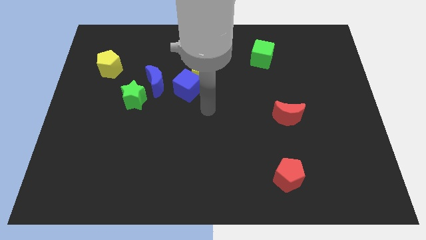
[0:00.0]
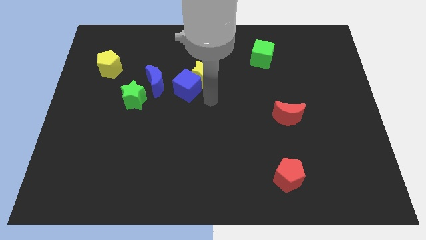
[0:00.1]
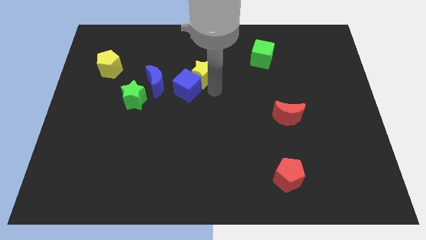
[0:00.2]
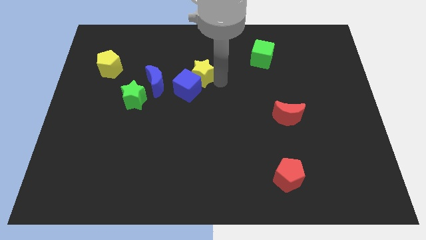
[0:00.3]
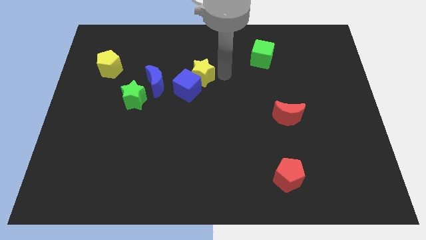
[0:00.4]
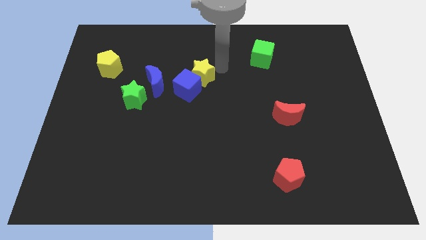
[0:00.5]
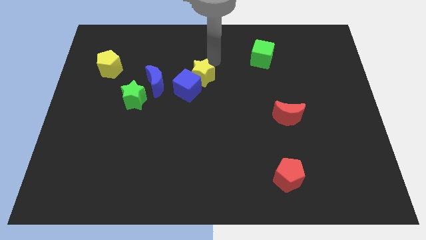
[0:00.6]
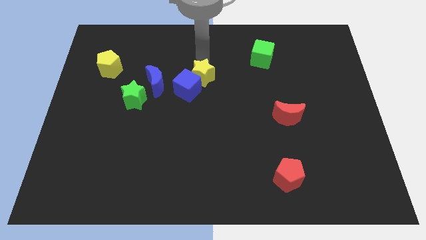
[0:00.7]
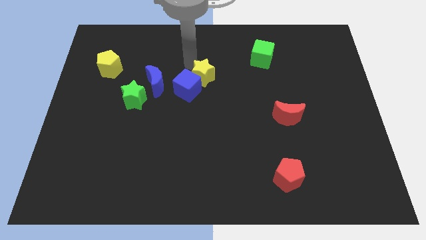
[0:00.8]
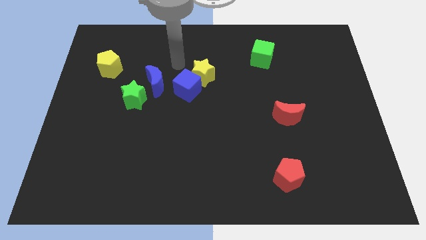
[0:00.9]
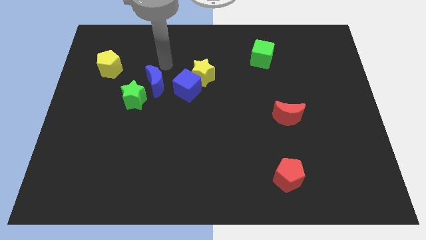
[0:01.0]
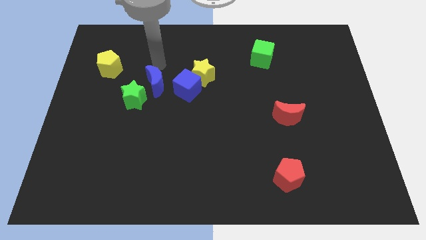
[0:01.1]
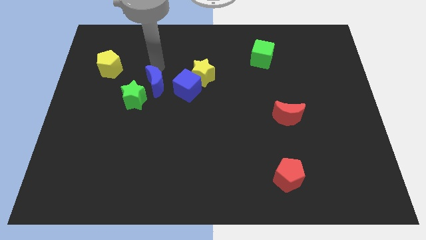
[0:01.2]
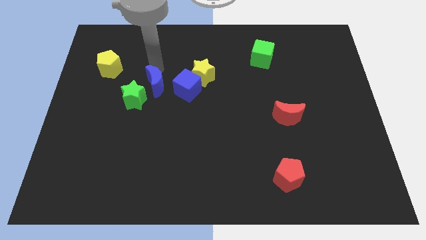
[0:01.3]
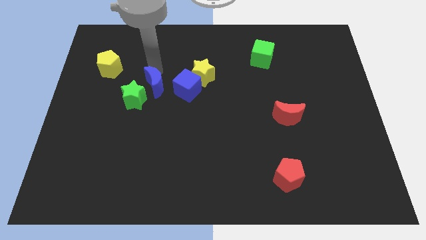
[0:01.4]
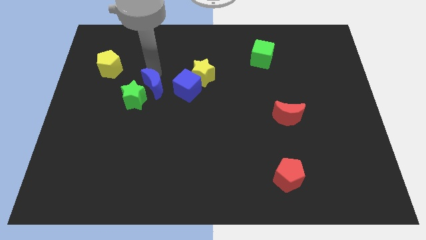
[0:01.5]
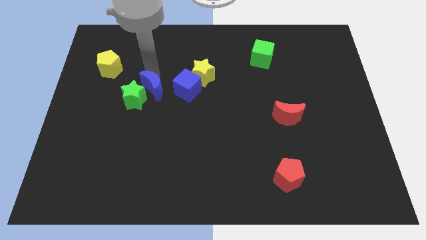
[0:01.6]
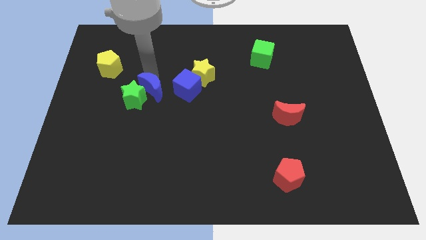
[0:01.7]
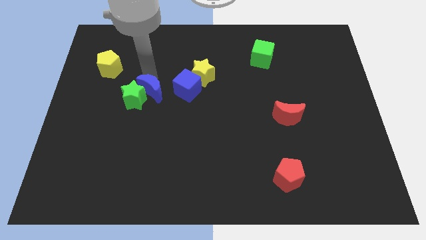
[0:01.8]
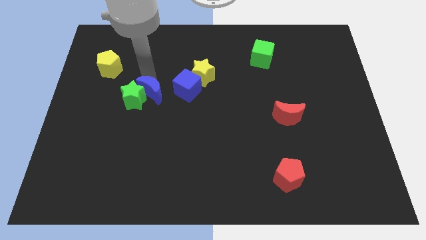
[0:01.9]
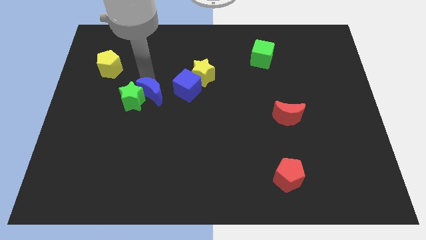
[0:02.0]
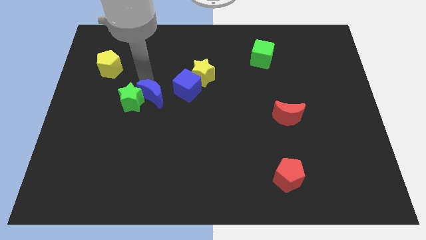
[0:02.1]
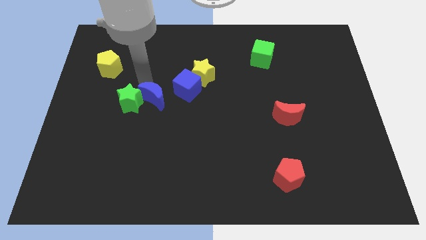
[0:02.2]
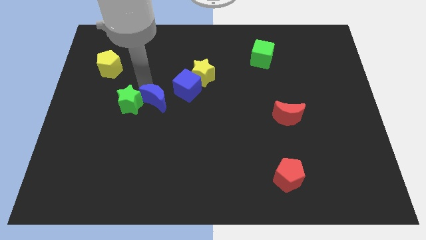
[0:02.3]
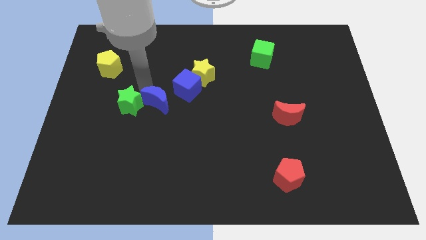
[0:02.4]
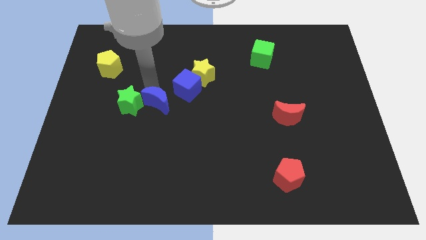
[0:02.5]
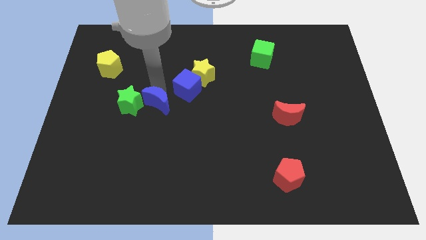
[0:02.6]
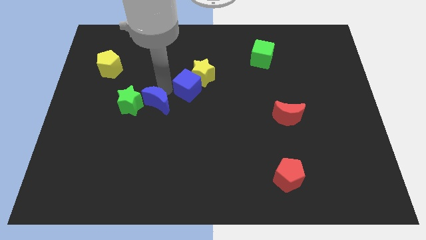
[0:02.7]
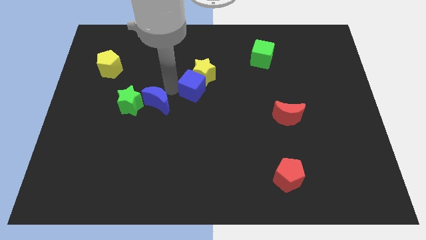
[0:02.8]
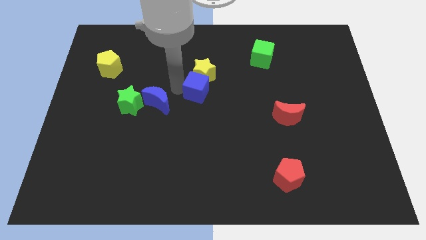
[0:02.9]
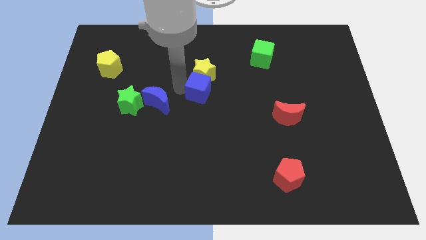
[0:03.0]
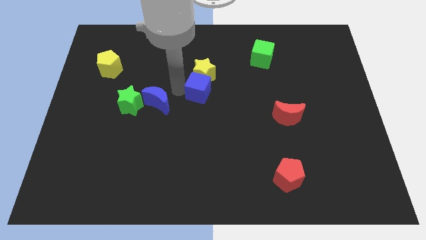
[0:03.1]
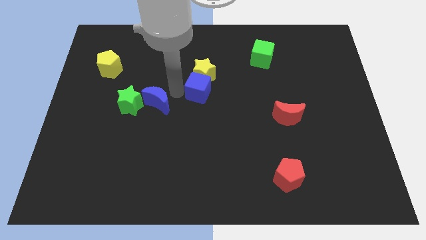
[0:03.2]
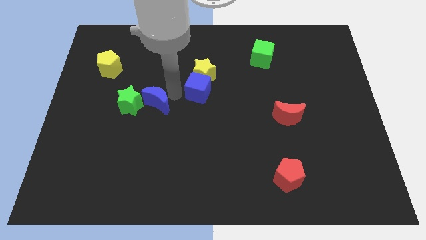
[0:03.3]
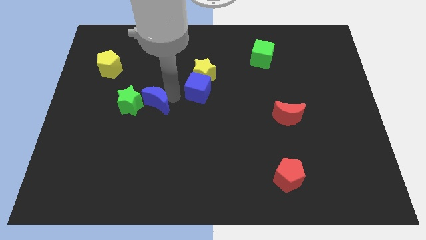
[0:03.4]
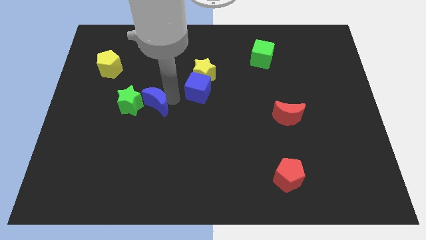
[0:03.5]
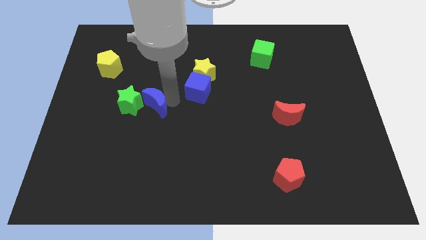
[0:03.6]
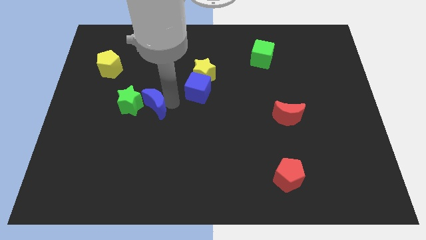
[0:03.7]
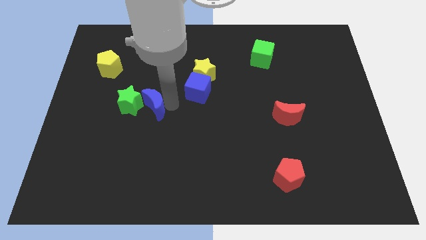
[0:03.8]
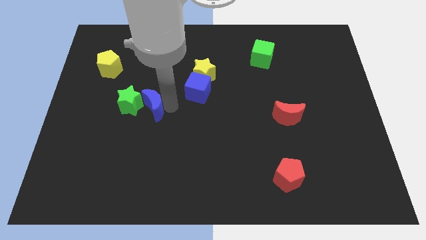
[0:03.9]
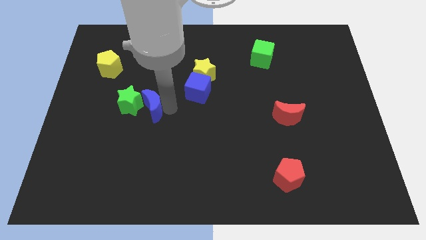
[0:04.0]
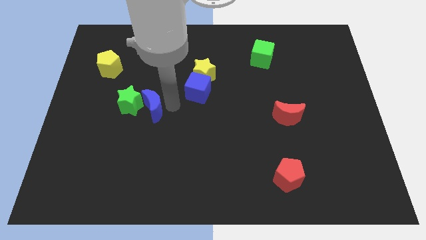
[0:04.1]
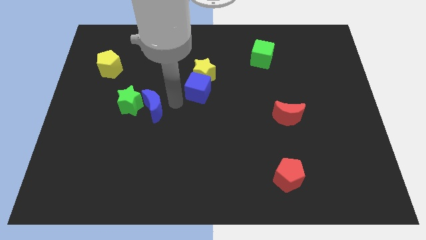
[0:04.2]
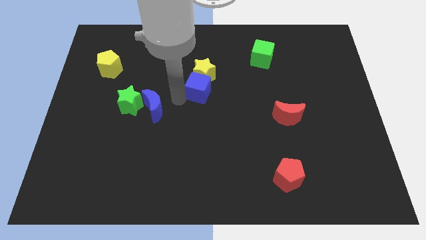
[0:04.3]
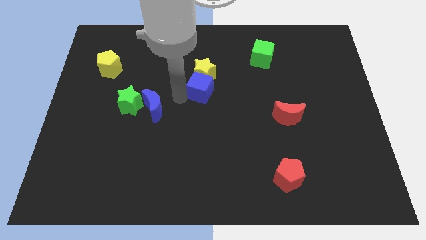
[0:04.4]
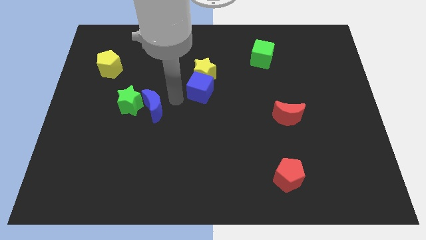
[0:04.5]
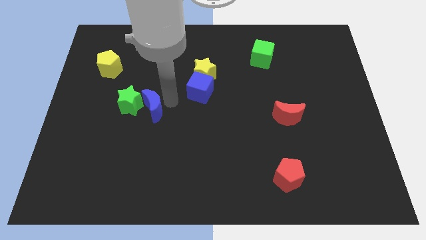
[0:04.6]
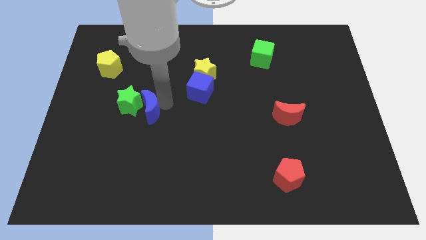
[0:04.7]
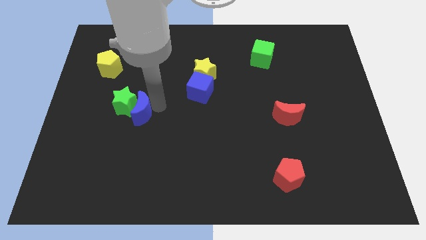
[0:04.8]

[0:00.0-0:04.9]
slightly move the blue moon down and left

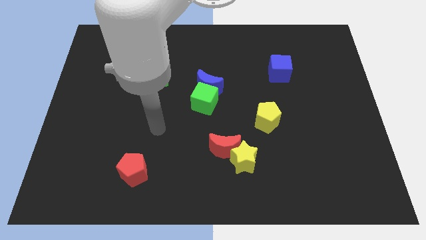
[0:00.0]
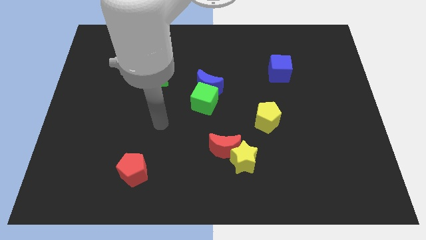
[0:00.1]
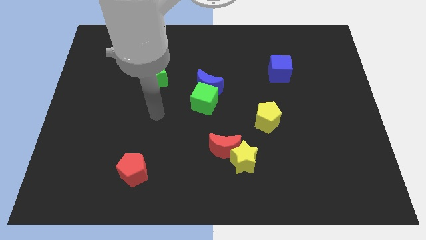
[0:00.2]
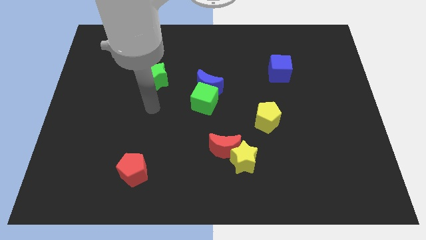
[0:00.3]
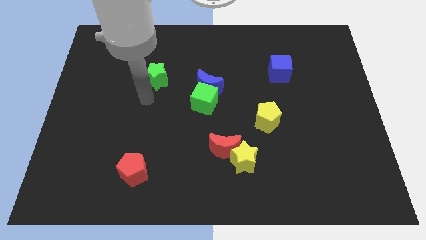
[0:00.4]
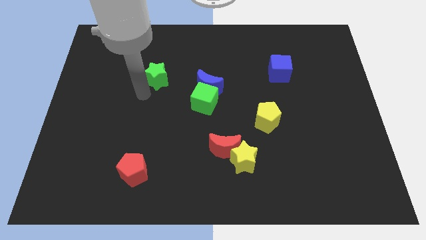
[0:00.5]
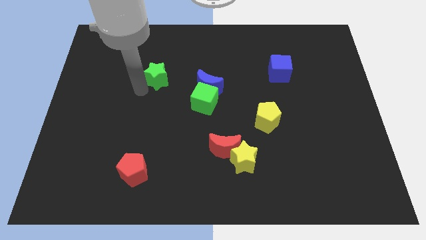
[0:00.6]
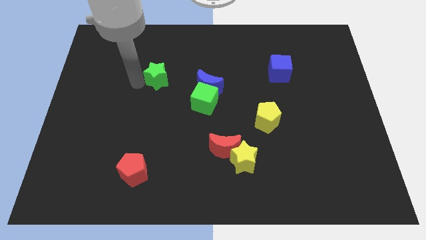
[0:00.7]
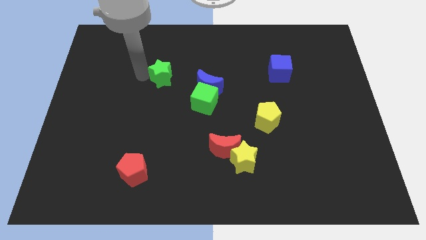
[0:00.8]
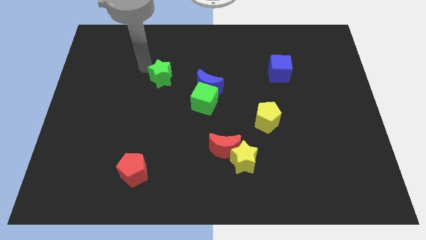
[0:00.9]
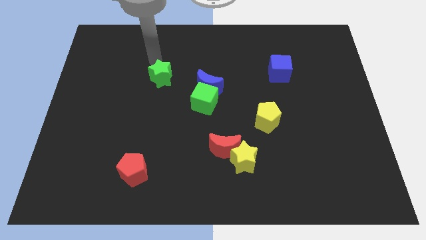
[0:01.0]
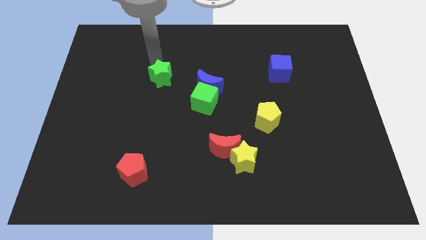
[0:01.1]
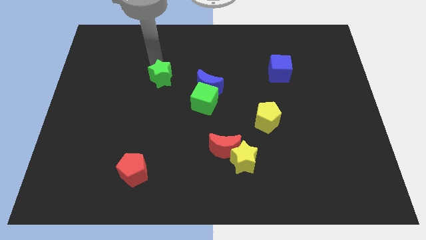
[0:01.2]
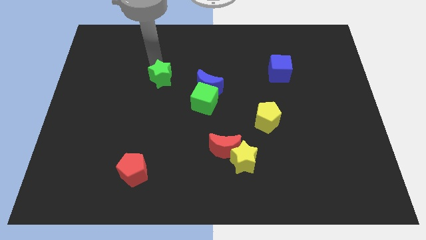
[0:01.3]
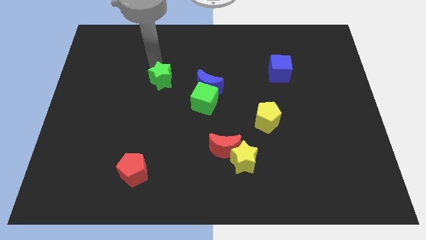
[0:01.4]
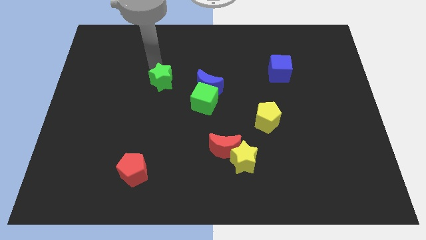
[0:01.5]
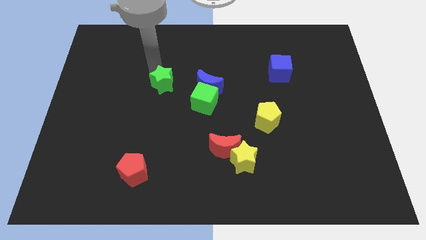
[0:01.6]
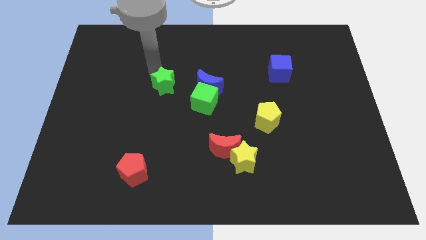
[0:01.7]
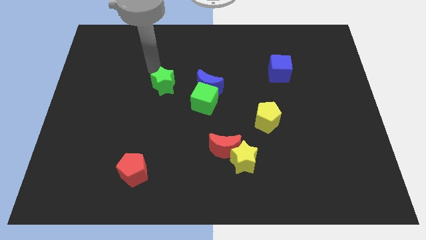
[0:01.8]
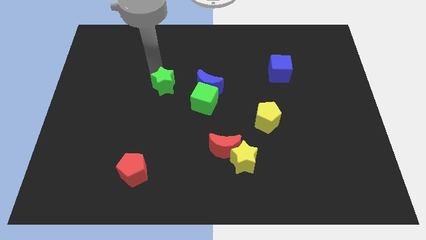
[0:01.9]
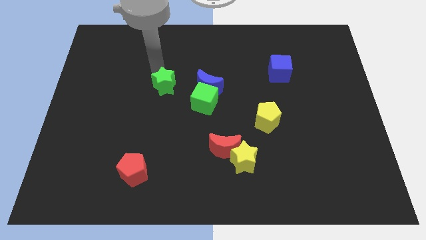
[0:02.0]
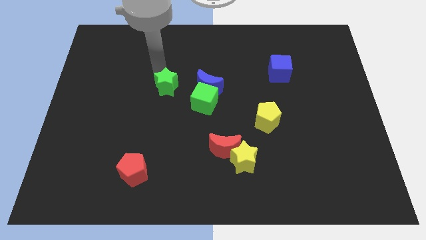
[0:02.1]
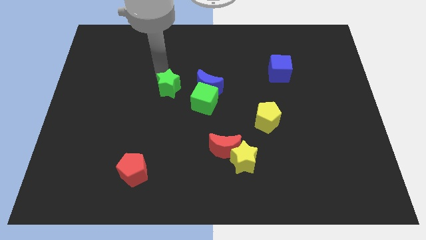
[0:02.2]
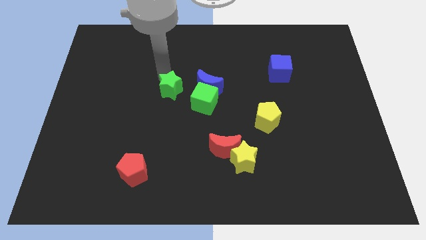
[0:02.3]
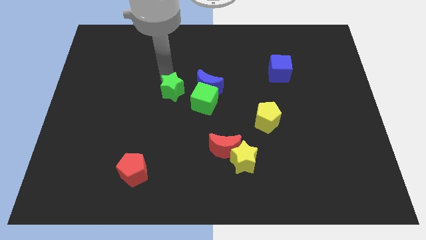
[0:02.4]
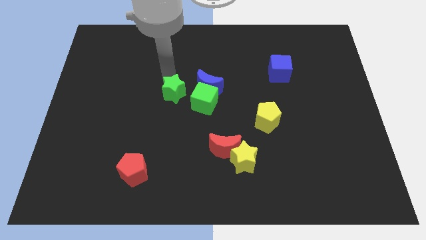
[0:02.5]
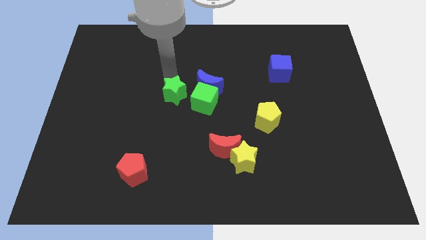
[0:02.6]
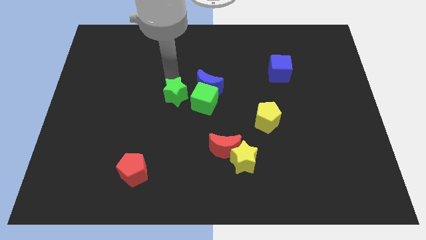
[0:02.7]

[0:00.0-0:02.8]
push the green star somewhat diagonally down and to the right

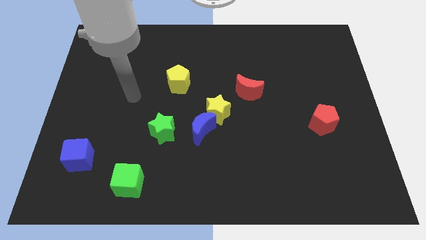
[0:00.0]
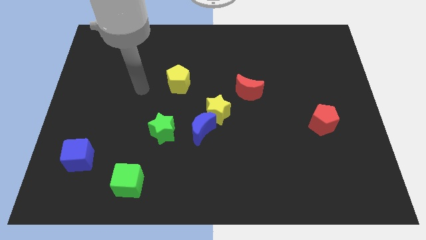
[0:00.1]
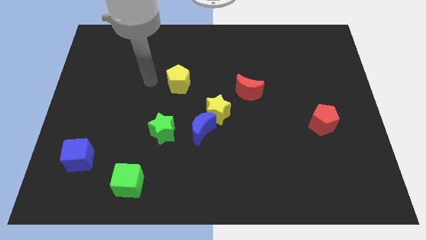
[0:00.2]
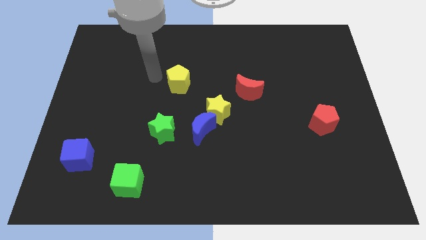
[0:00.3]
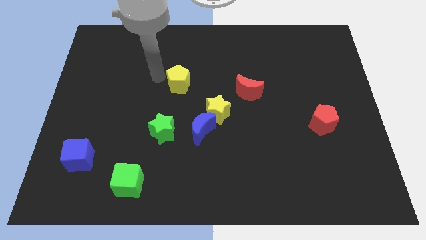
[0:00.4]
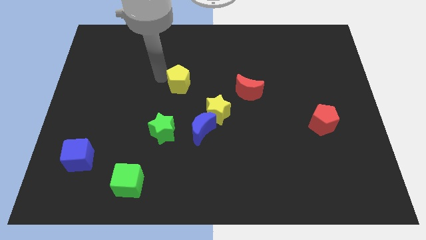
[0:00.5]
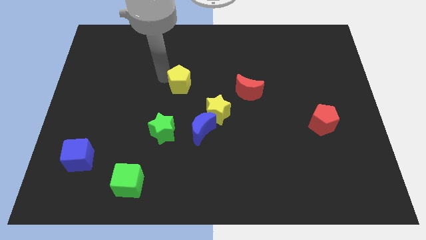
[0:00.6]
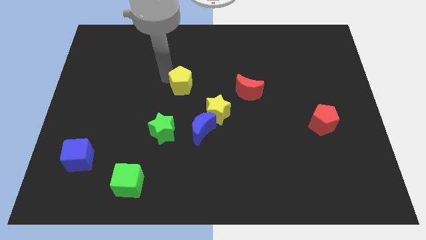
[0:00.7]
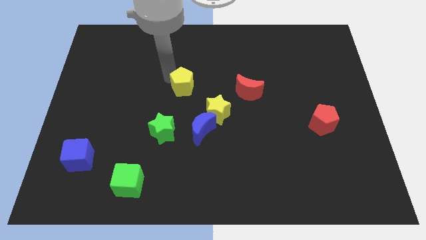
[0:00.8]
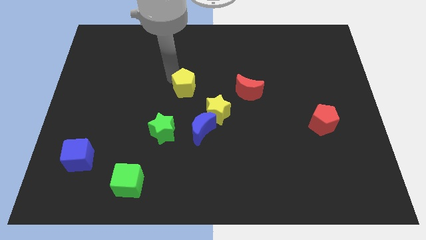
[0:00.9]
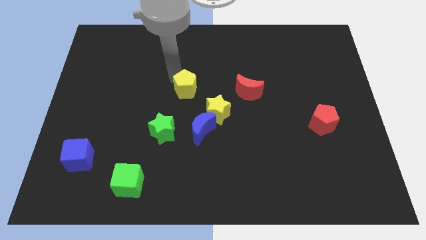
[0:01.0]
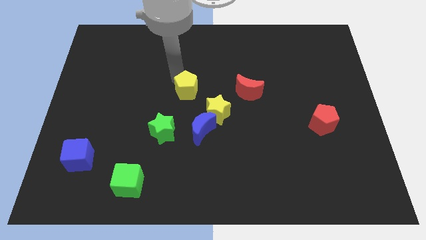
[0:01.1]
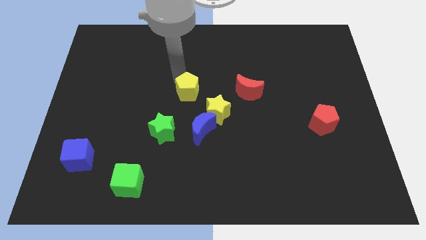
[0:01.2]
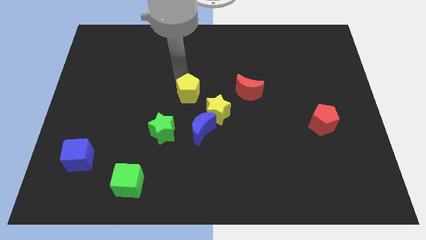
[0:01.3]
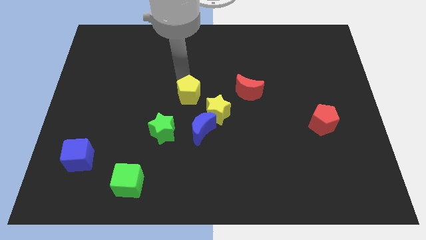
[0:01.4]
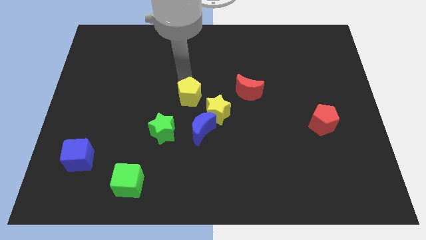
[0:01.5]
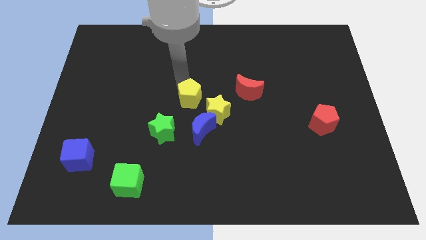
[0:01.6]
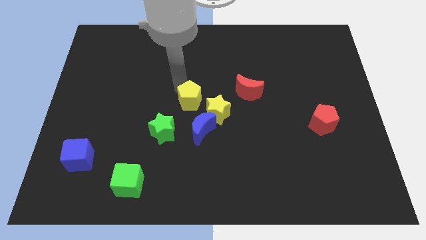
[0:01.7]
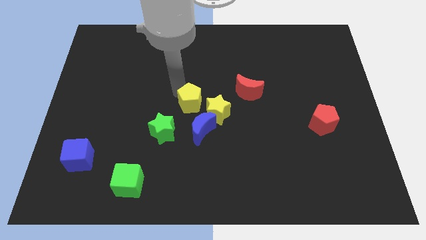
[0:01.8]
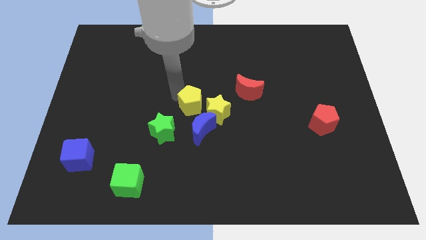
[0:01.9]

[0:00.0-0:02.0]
slide the yellow pentagon a little downwards and right
